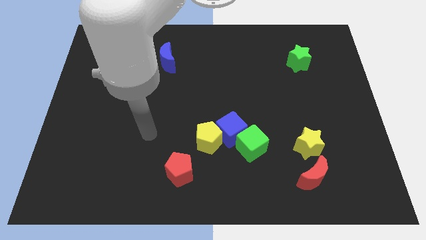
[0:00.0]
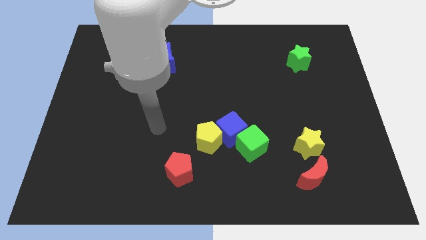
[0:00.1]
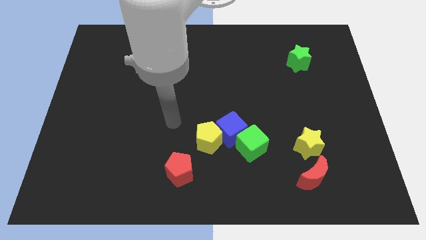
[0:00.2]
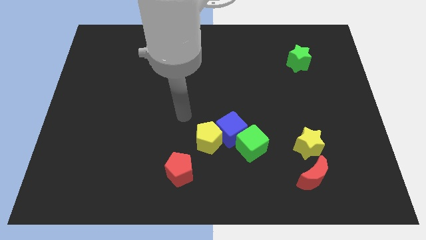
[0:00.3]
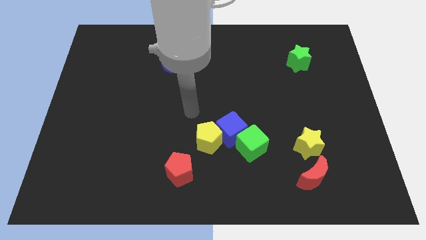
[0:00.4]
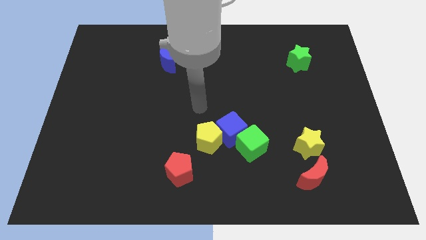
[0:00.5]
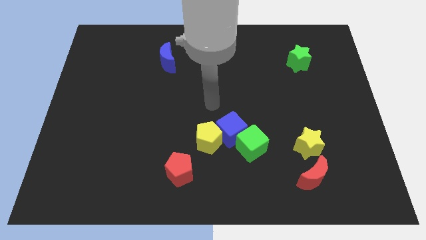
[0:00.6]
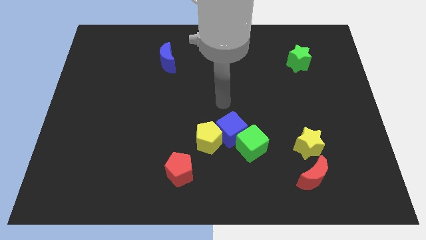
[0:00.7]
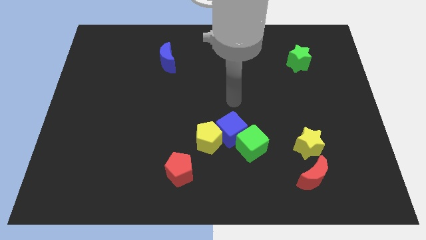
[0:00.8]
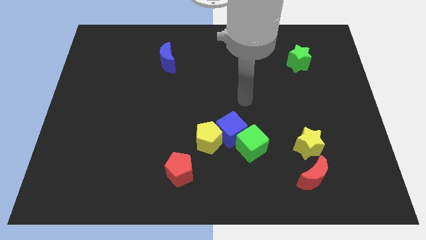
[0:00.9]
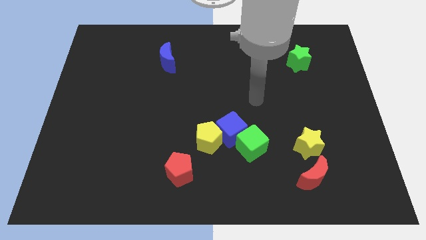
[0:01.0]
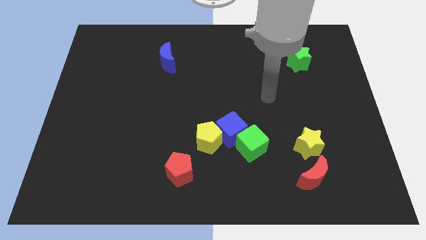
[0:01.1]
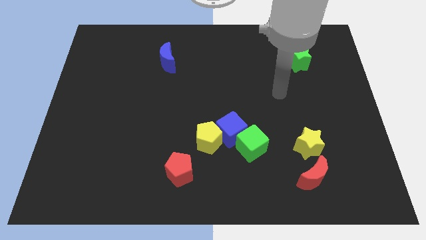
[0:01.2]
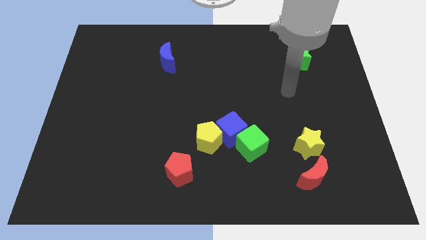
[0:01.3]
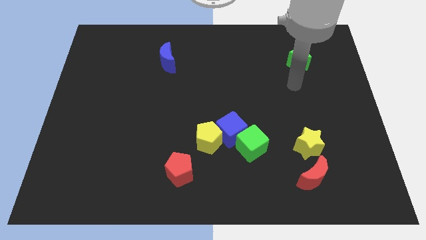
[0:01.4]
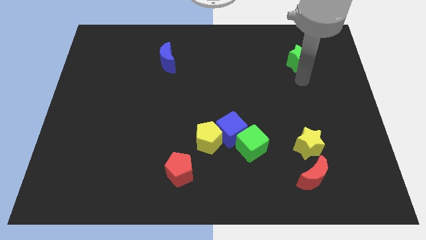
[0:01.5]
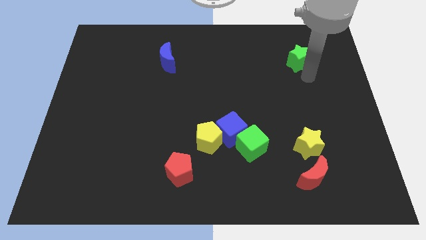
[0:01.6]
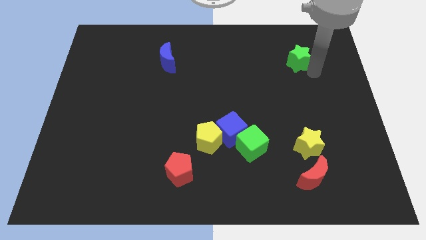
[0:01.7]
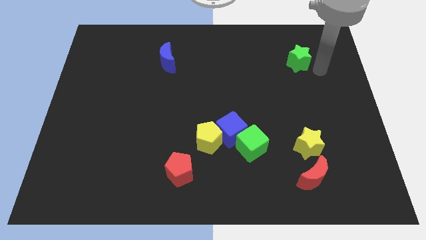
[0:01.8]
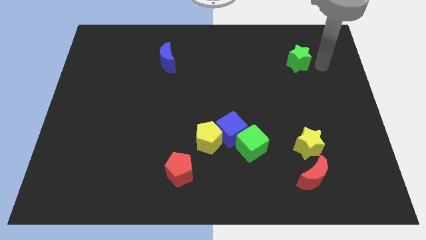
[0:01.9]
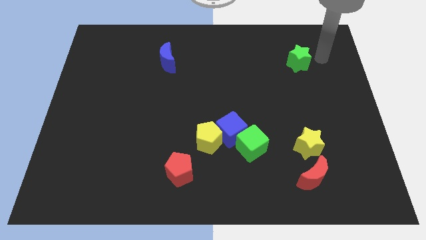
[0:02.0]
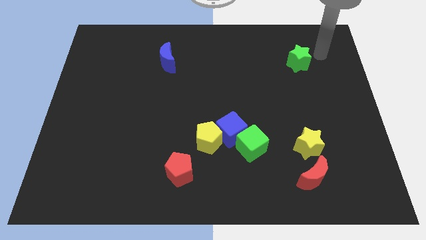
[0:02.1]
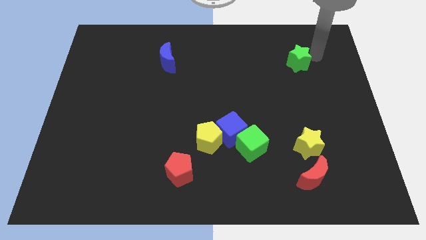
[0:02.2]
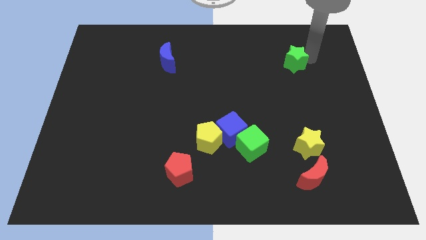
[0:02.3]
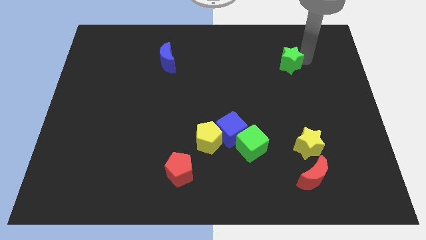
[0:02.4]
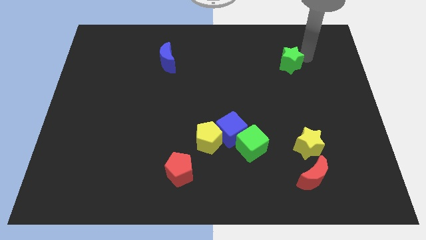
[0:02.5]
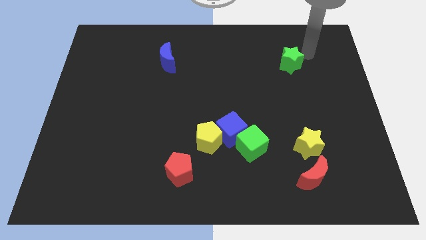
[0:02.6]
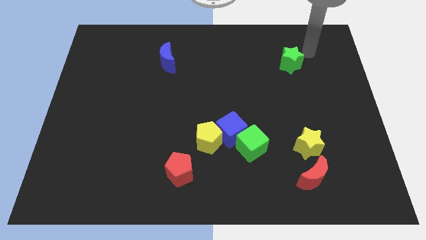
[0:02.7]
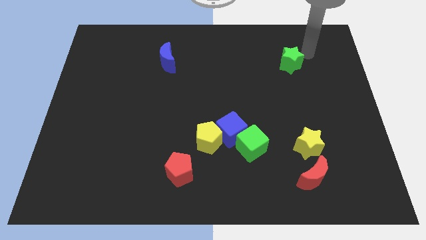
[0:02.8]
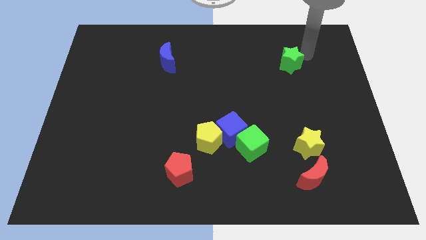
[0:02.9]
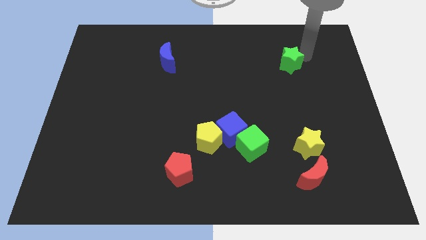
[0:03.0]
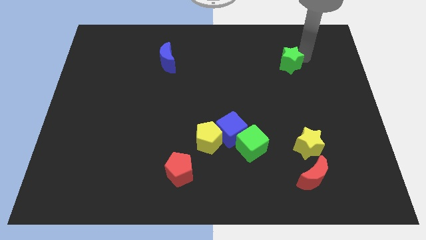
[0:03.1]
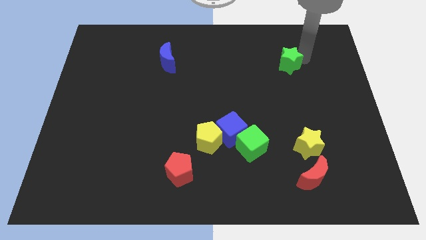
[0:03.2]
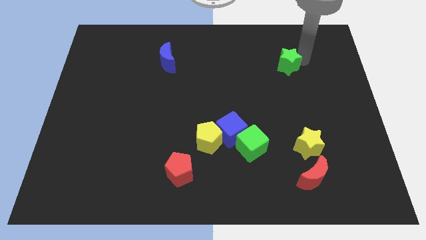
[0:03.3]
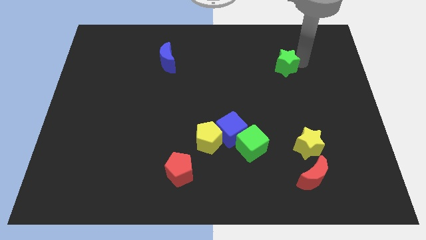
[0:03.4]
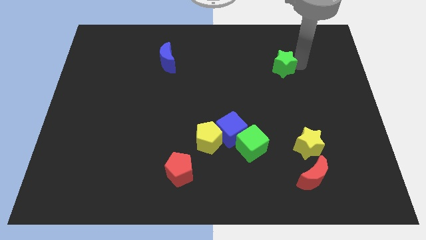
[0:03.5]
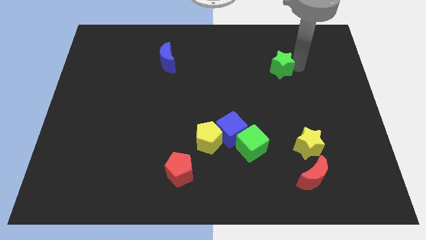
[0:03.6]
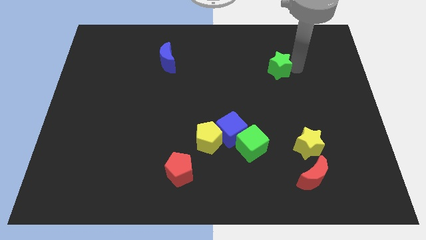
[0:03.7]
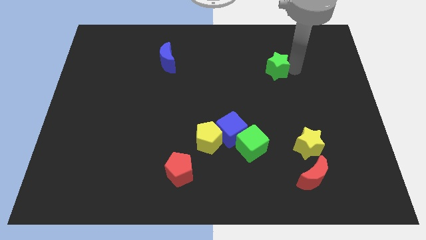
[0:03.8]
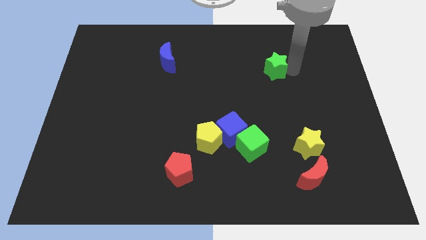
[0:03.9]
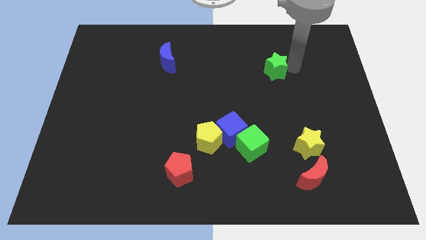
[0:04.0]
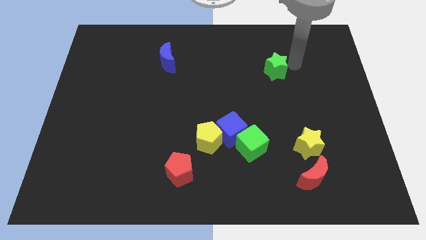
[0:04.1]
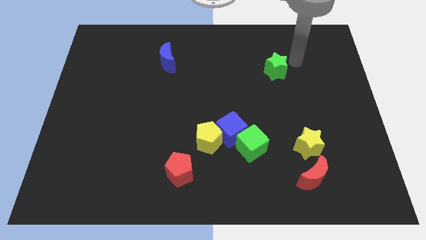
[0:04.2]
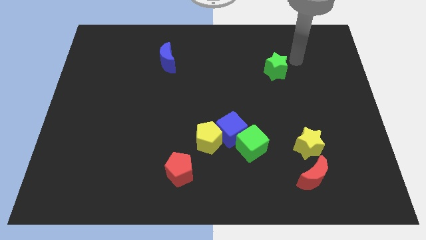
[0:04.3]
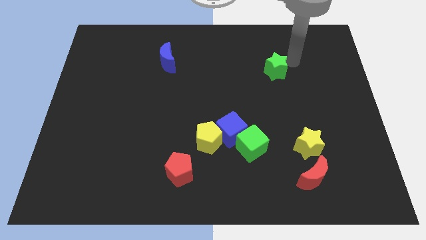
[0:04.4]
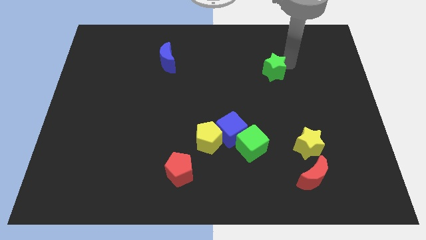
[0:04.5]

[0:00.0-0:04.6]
slightly slide the green star downwards and left

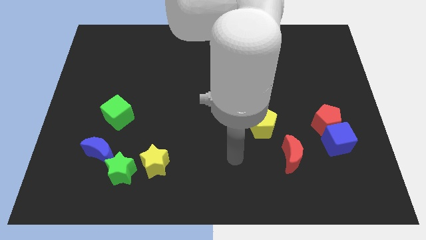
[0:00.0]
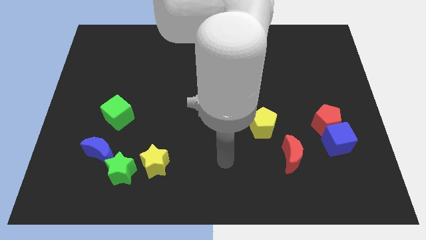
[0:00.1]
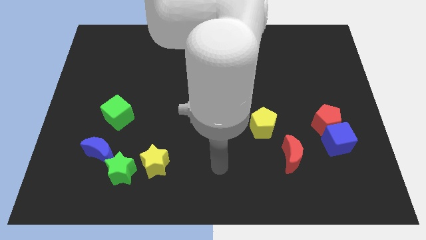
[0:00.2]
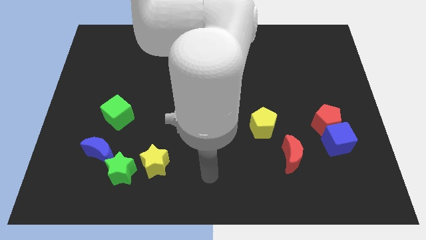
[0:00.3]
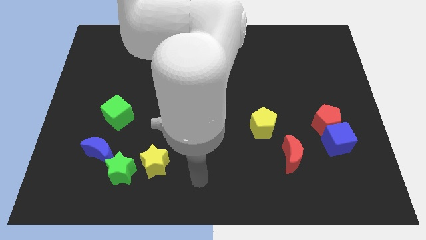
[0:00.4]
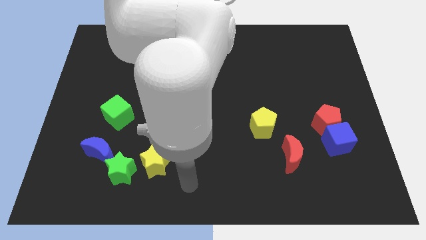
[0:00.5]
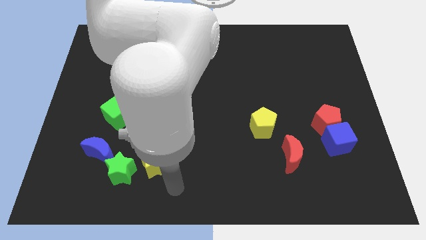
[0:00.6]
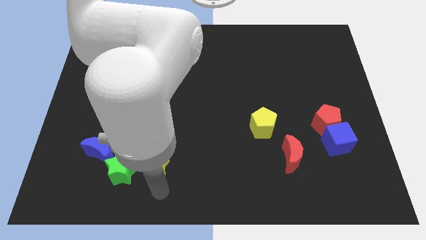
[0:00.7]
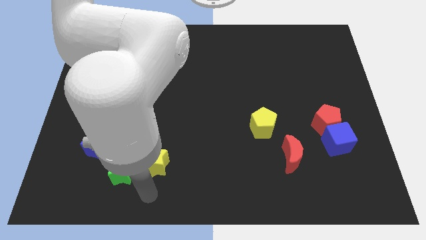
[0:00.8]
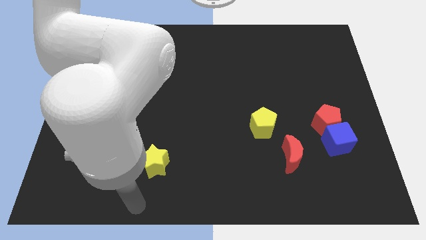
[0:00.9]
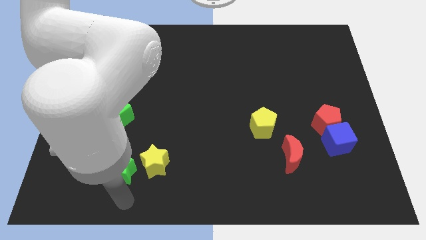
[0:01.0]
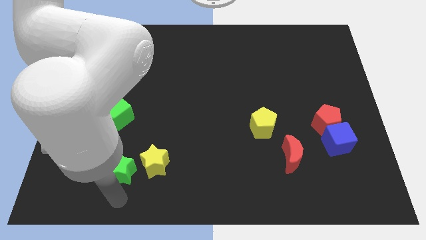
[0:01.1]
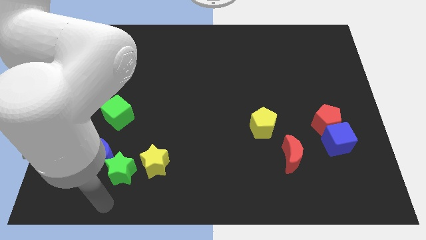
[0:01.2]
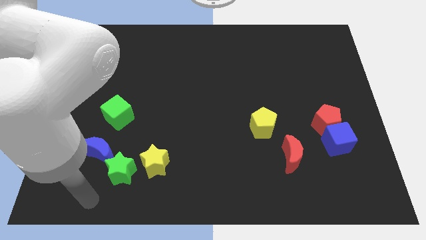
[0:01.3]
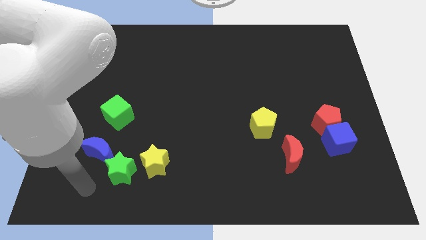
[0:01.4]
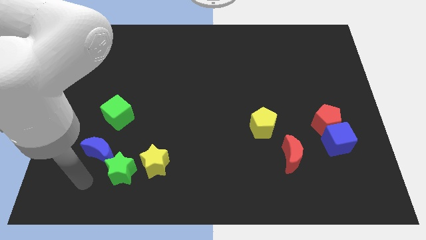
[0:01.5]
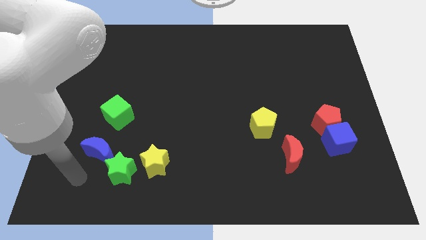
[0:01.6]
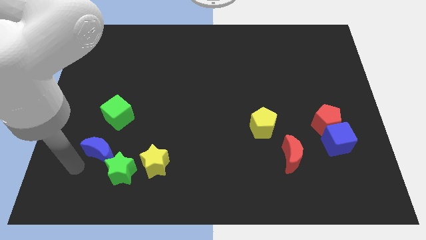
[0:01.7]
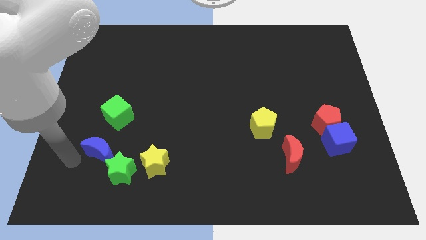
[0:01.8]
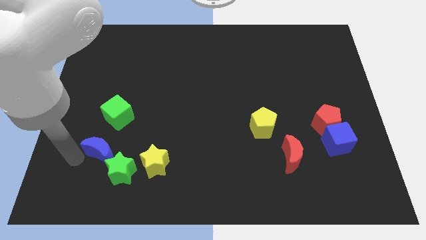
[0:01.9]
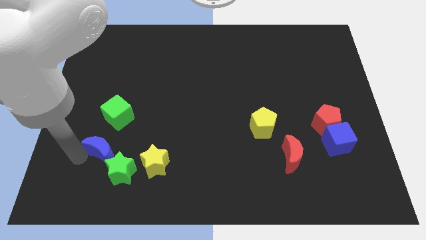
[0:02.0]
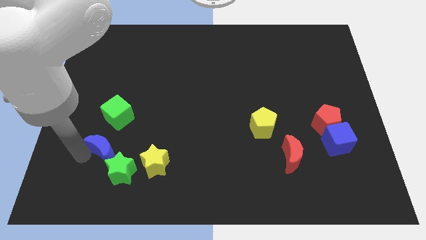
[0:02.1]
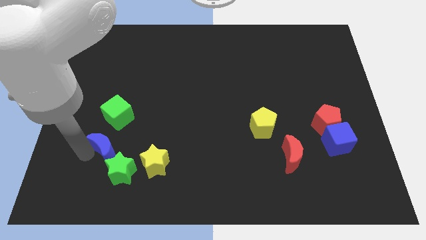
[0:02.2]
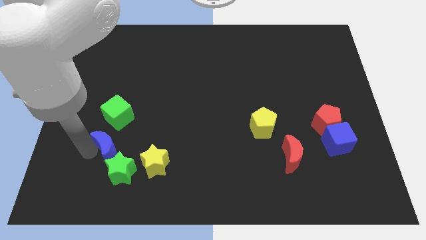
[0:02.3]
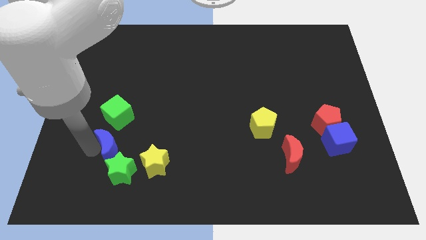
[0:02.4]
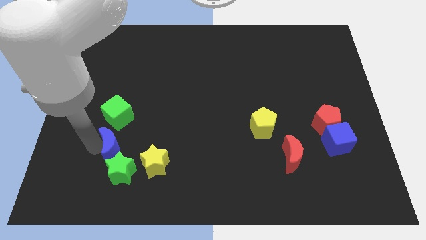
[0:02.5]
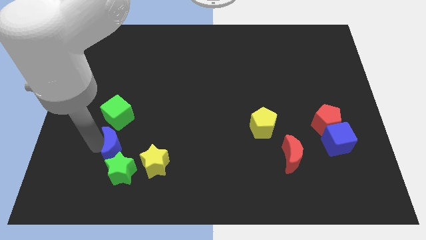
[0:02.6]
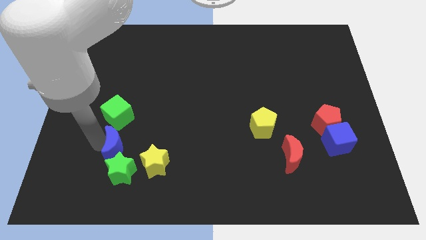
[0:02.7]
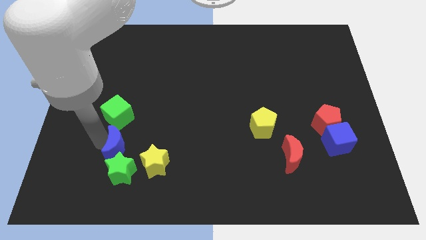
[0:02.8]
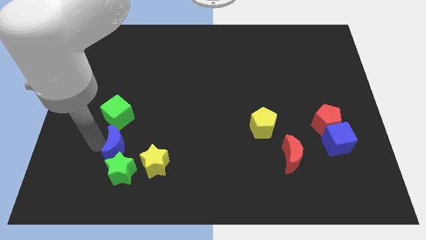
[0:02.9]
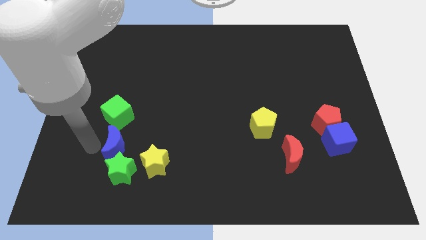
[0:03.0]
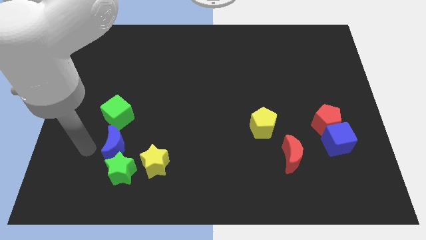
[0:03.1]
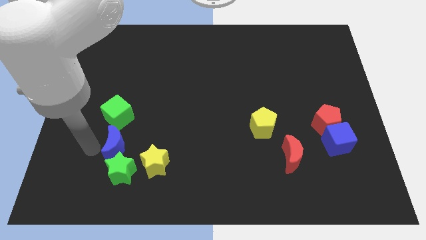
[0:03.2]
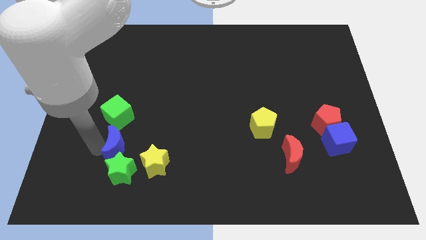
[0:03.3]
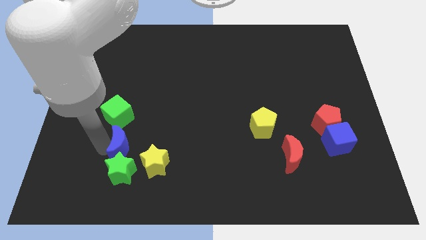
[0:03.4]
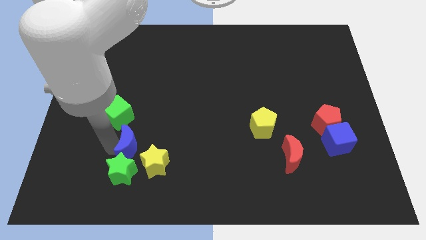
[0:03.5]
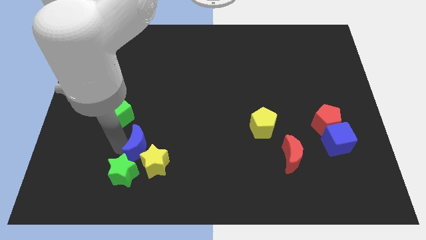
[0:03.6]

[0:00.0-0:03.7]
slide the blue moon a bit right
